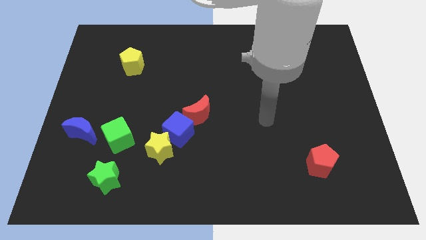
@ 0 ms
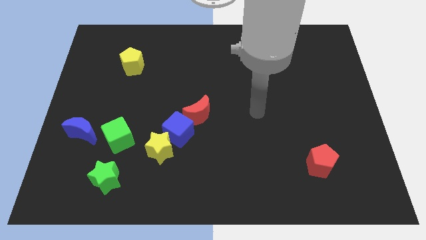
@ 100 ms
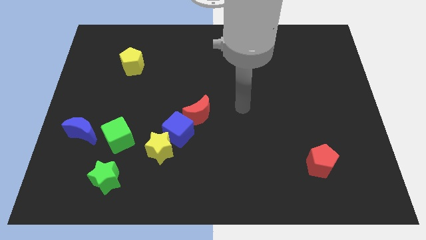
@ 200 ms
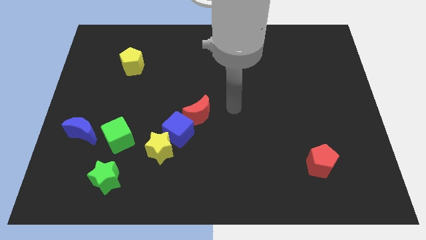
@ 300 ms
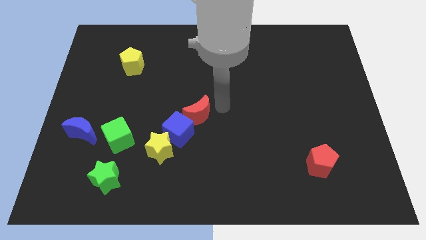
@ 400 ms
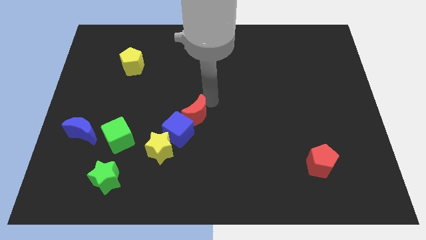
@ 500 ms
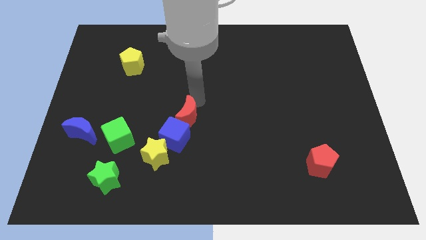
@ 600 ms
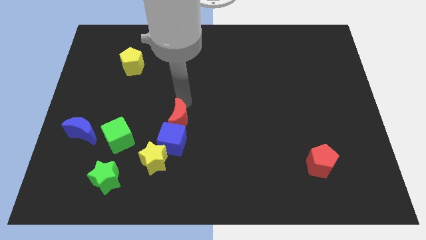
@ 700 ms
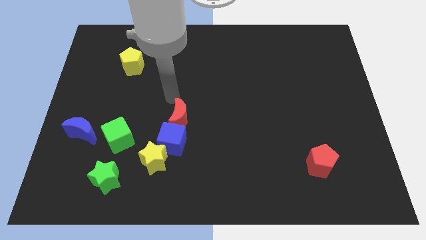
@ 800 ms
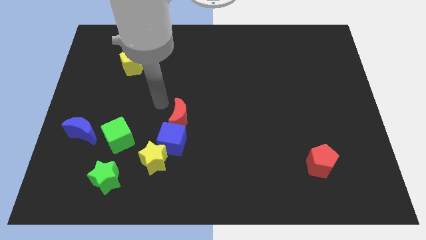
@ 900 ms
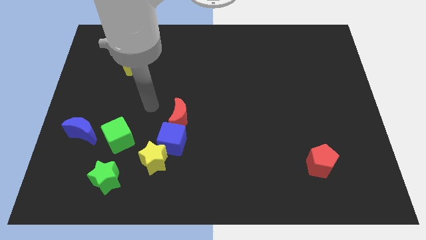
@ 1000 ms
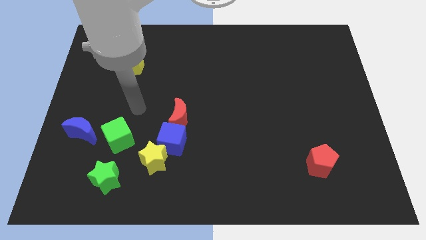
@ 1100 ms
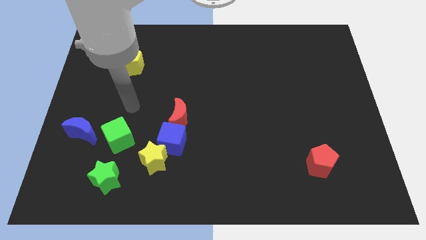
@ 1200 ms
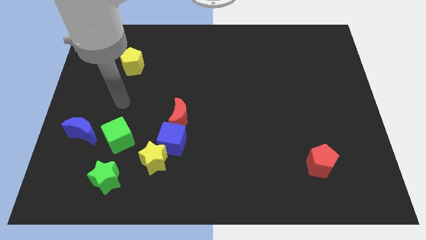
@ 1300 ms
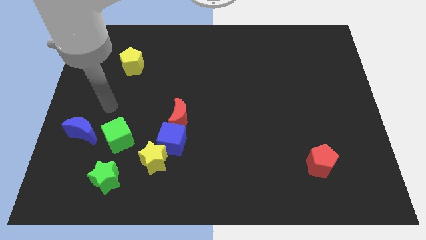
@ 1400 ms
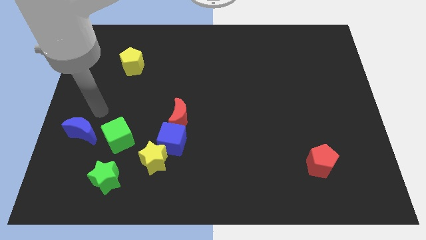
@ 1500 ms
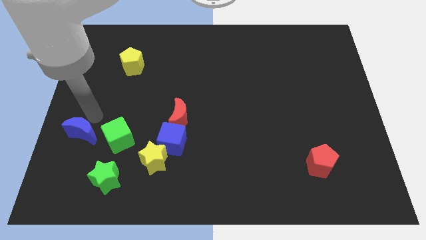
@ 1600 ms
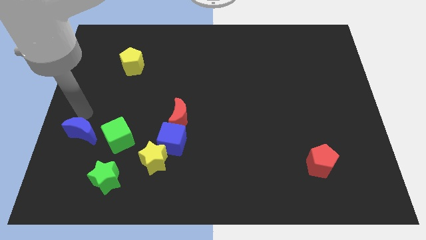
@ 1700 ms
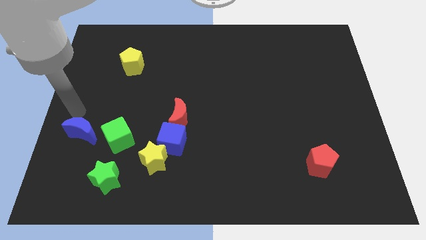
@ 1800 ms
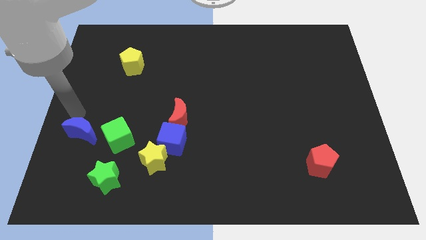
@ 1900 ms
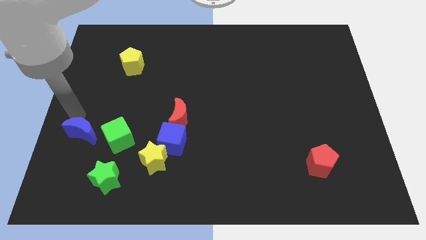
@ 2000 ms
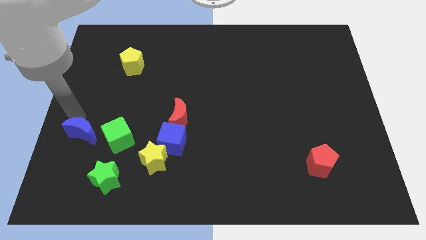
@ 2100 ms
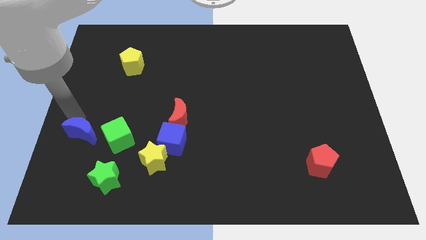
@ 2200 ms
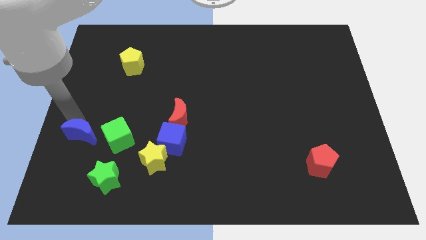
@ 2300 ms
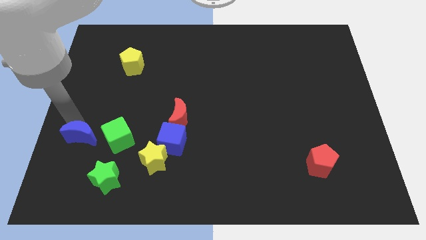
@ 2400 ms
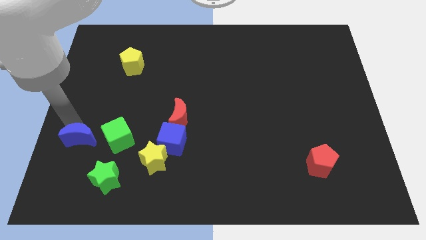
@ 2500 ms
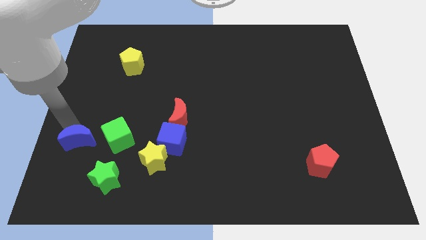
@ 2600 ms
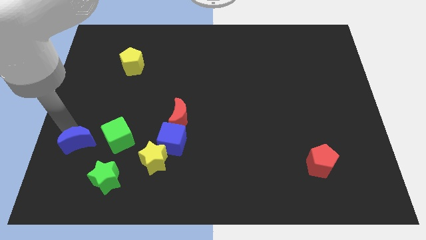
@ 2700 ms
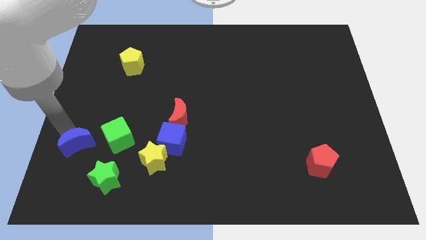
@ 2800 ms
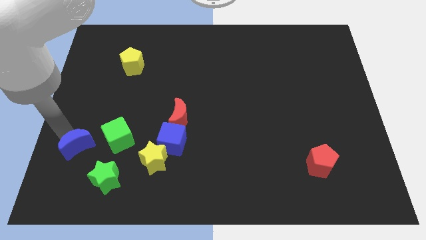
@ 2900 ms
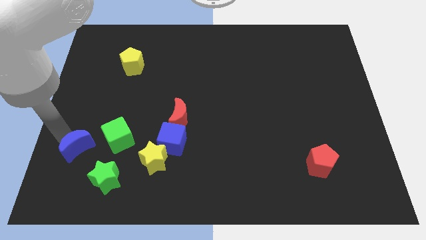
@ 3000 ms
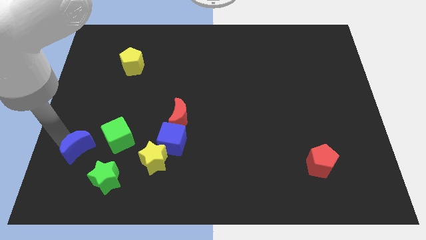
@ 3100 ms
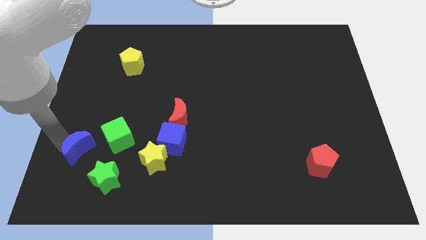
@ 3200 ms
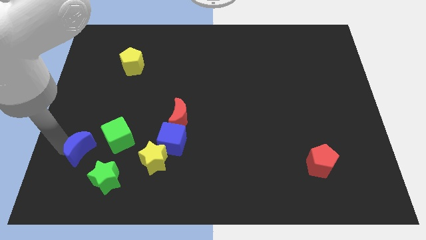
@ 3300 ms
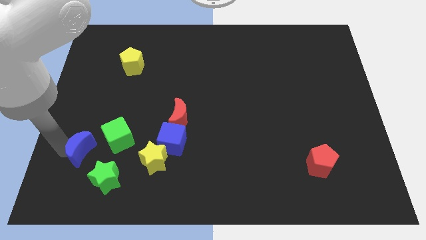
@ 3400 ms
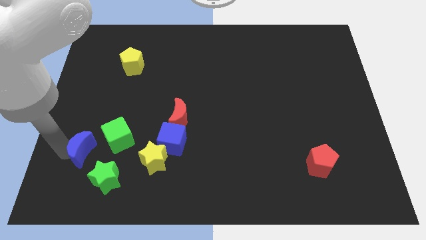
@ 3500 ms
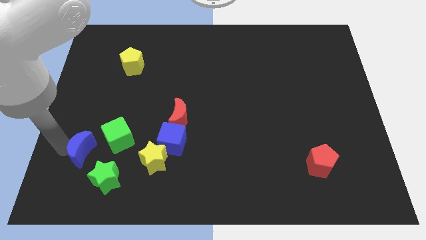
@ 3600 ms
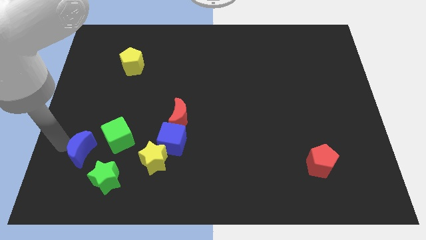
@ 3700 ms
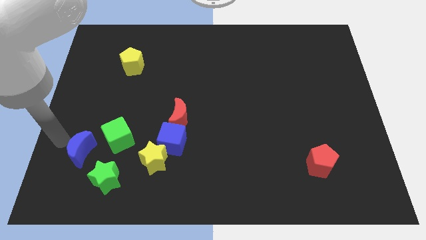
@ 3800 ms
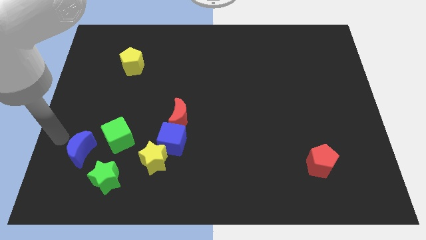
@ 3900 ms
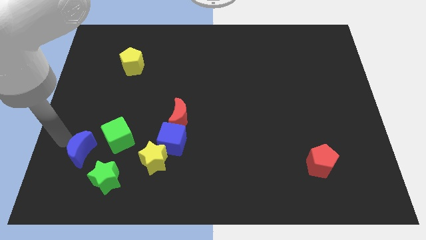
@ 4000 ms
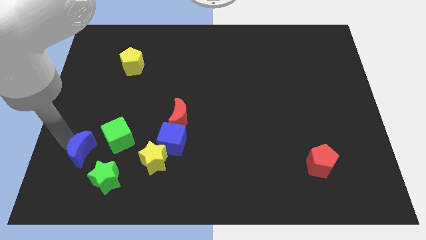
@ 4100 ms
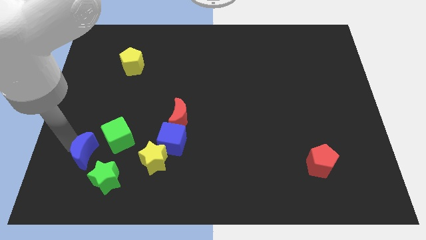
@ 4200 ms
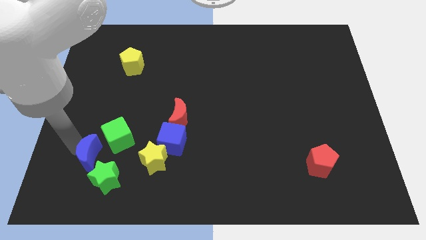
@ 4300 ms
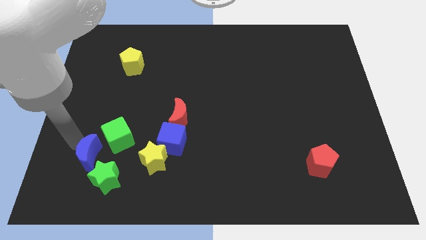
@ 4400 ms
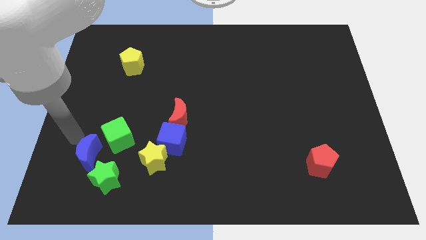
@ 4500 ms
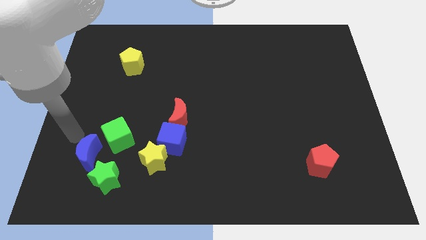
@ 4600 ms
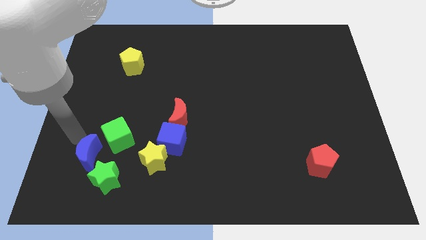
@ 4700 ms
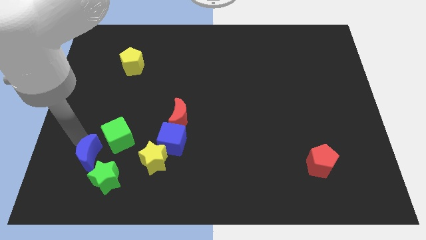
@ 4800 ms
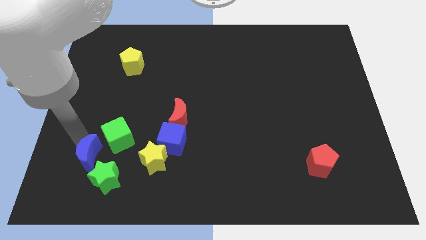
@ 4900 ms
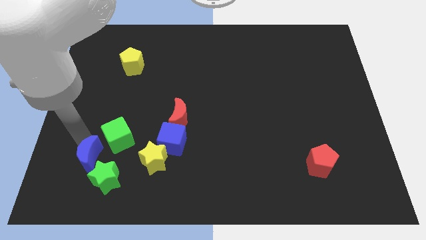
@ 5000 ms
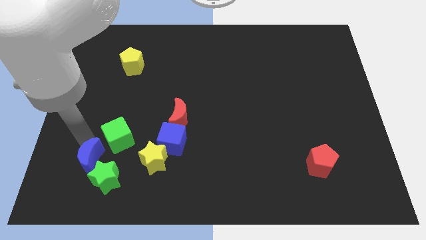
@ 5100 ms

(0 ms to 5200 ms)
push the blue moon next to the green star

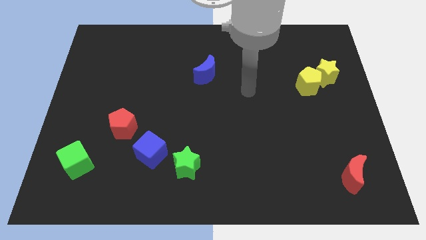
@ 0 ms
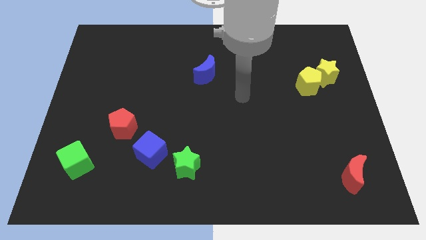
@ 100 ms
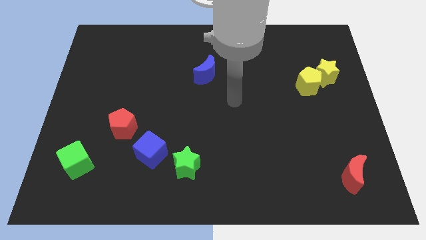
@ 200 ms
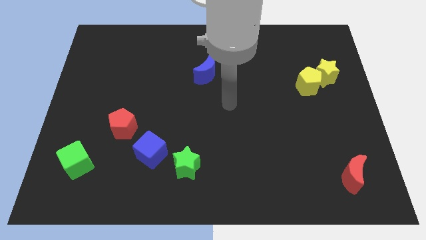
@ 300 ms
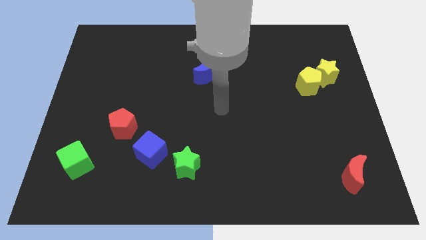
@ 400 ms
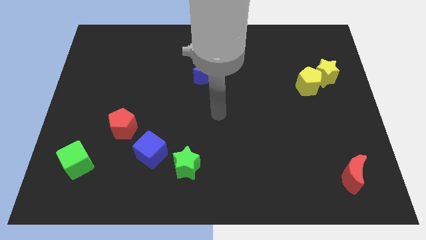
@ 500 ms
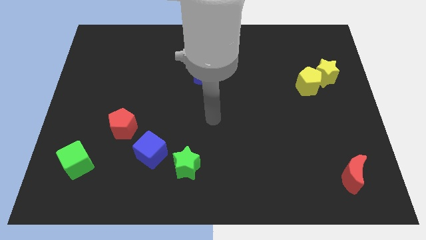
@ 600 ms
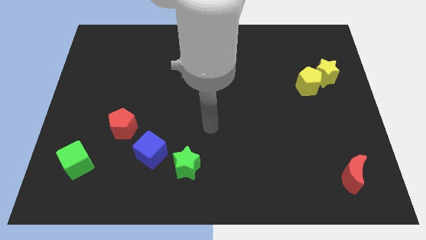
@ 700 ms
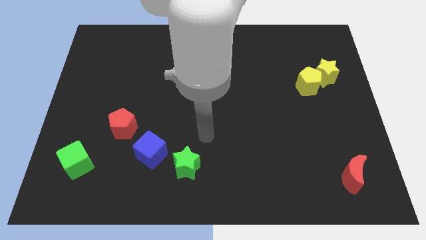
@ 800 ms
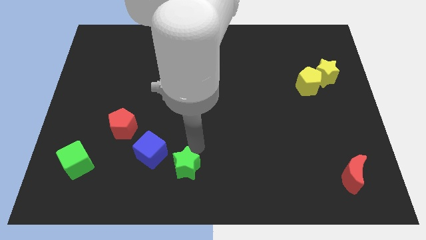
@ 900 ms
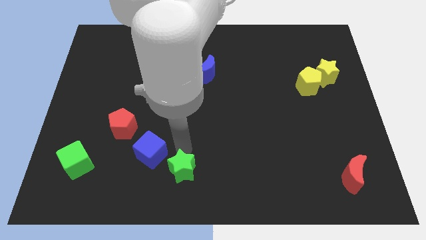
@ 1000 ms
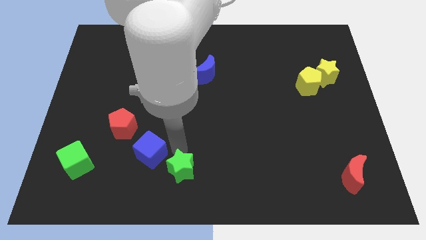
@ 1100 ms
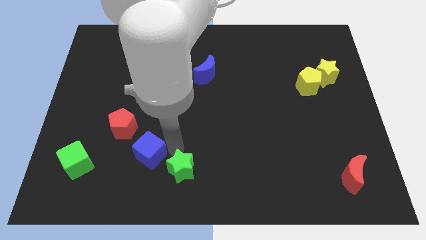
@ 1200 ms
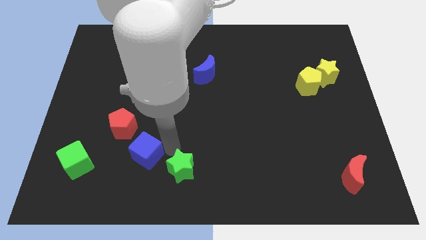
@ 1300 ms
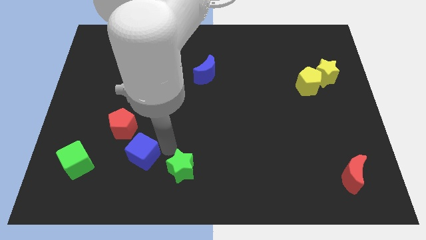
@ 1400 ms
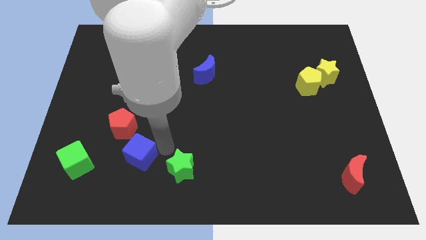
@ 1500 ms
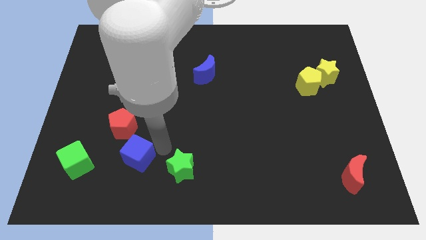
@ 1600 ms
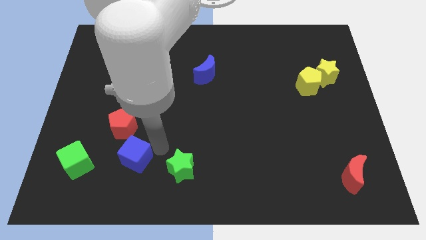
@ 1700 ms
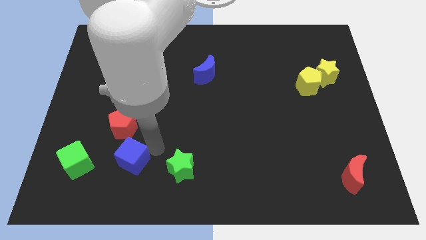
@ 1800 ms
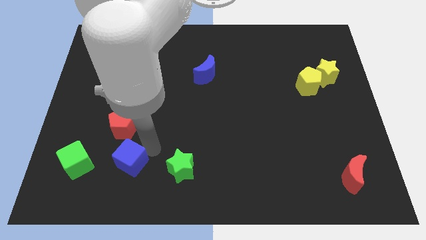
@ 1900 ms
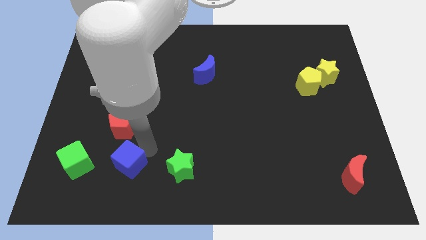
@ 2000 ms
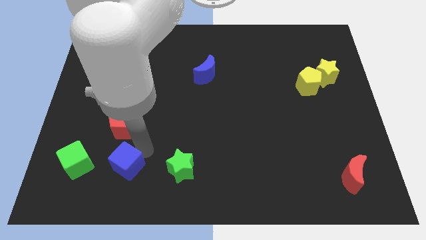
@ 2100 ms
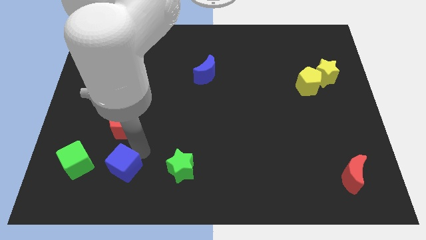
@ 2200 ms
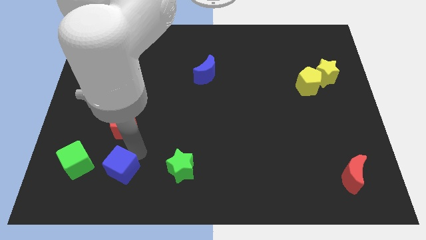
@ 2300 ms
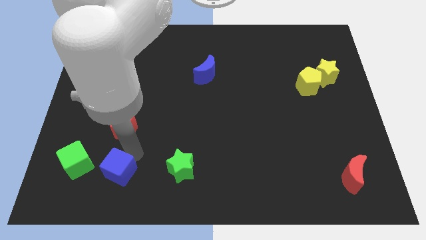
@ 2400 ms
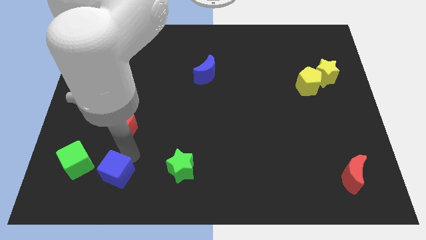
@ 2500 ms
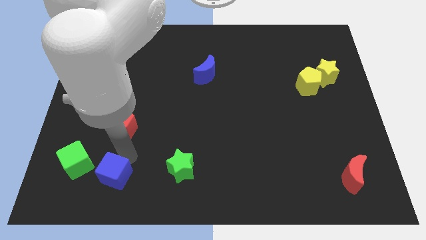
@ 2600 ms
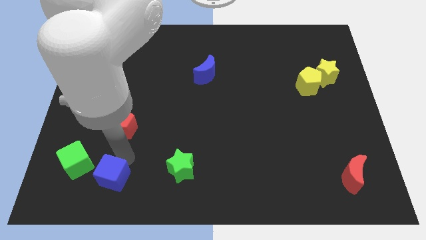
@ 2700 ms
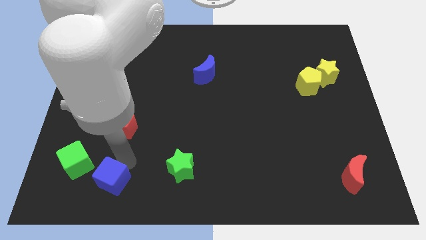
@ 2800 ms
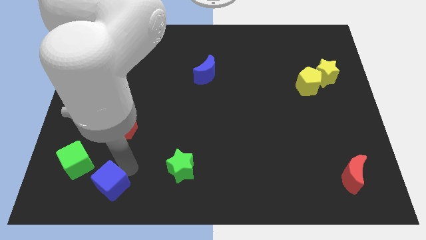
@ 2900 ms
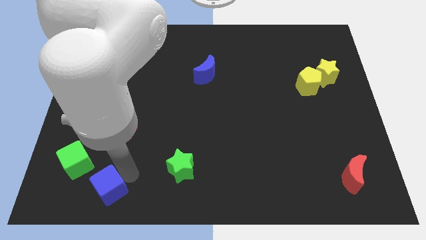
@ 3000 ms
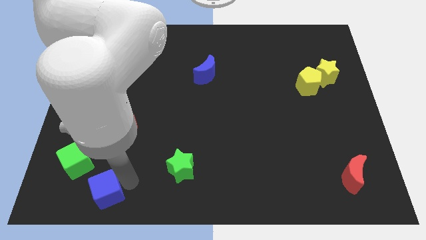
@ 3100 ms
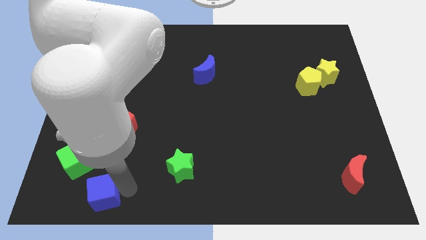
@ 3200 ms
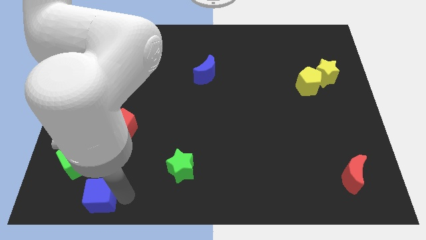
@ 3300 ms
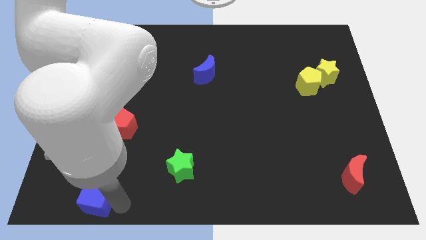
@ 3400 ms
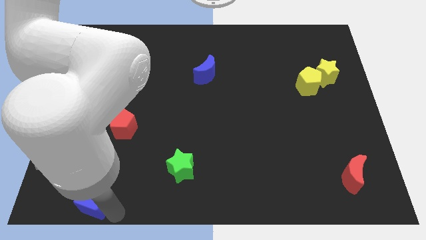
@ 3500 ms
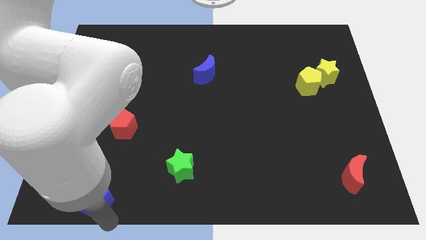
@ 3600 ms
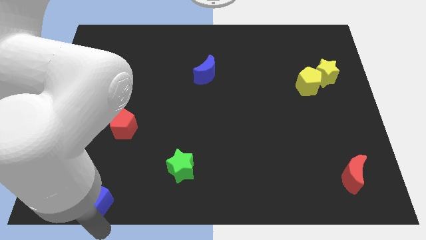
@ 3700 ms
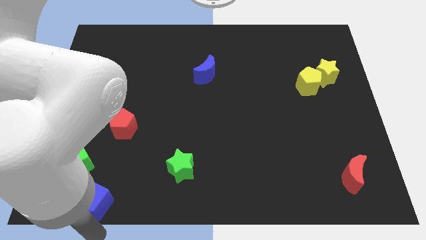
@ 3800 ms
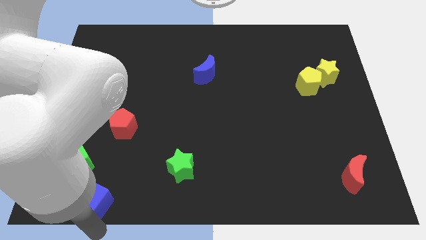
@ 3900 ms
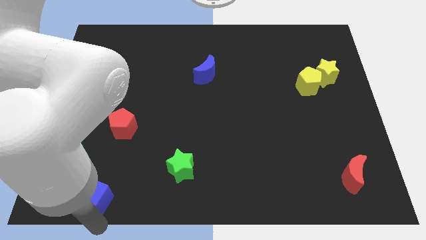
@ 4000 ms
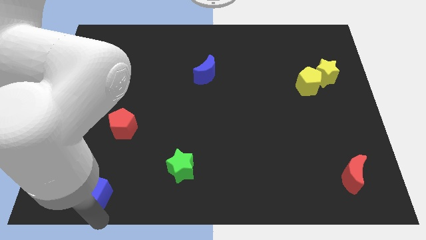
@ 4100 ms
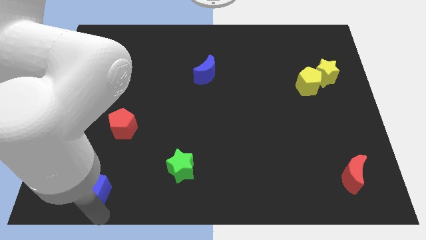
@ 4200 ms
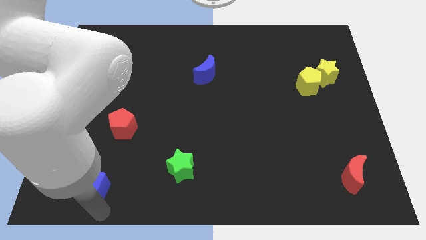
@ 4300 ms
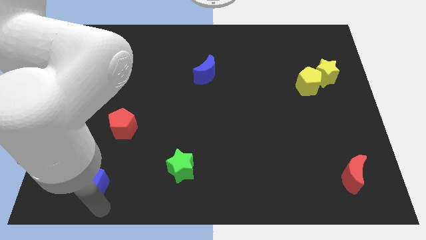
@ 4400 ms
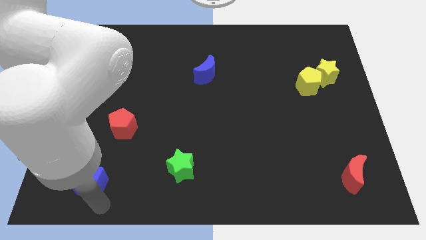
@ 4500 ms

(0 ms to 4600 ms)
slide the blue cube towards the green cube
